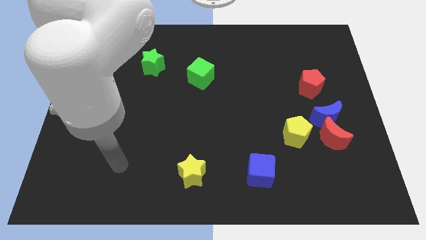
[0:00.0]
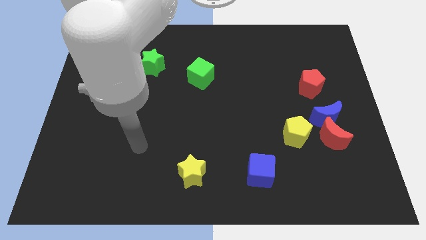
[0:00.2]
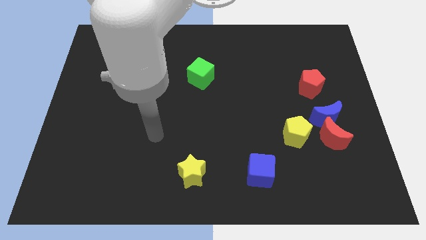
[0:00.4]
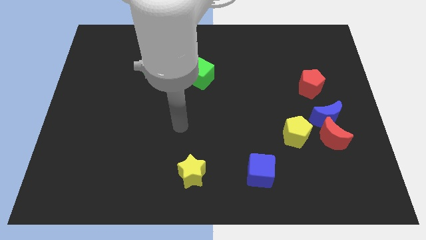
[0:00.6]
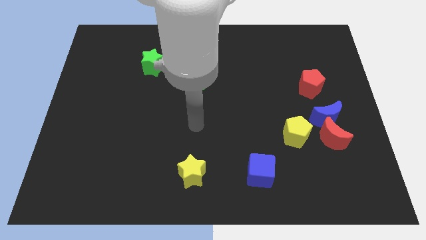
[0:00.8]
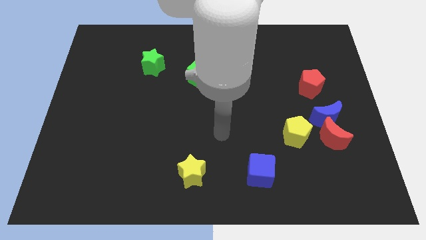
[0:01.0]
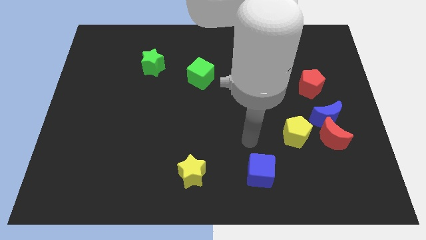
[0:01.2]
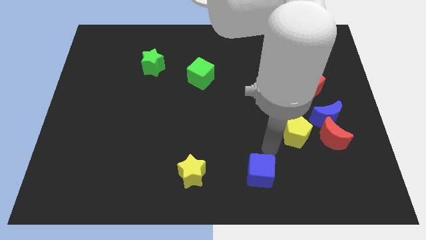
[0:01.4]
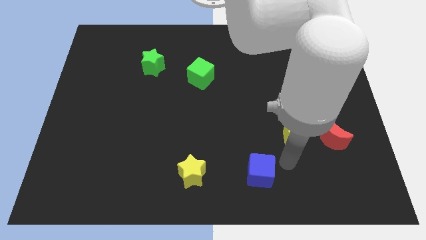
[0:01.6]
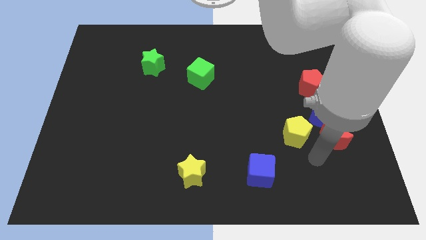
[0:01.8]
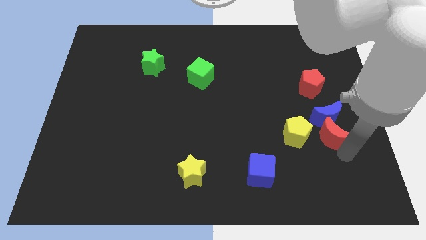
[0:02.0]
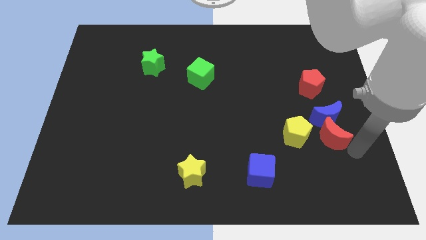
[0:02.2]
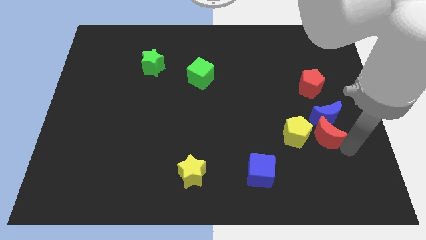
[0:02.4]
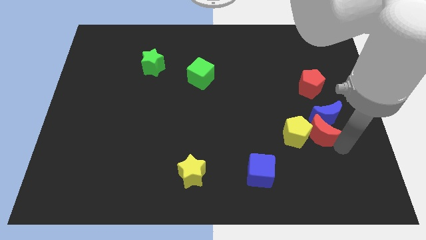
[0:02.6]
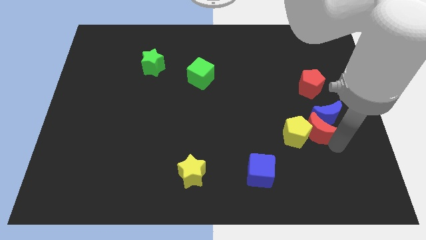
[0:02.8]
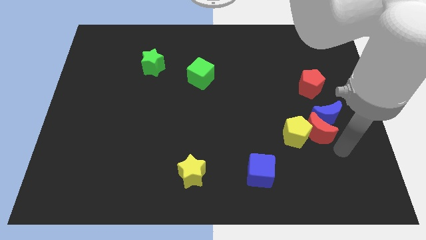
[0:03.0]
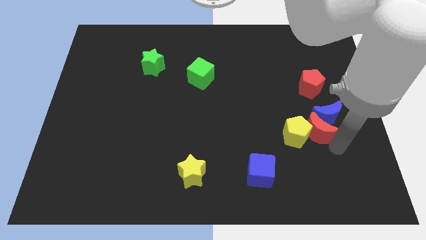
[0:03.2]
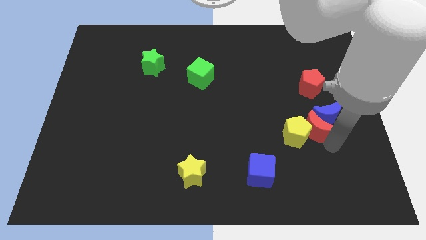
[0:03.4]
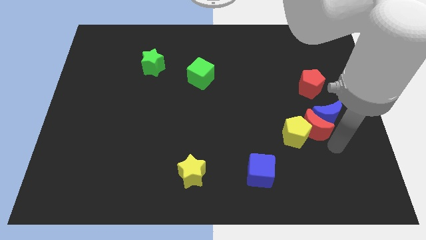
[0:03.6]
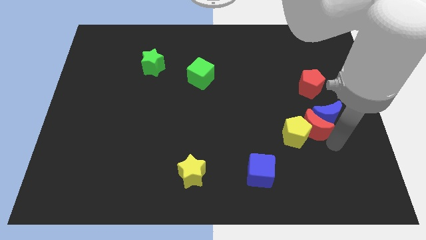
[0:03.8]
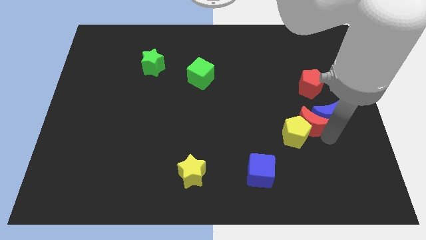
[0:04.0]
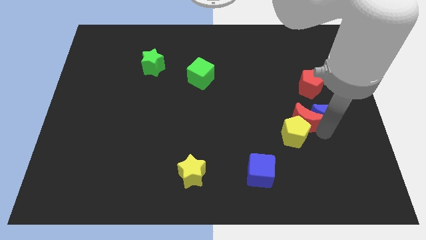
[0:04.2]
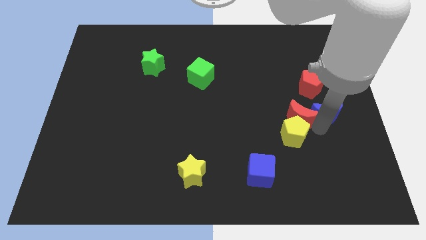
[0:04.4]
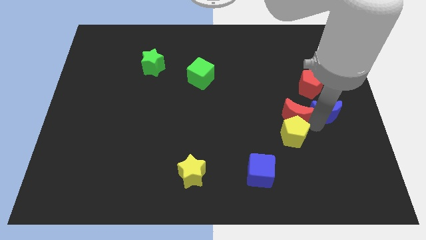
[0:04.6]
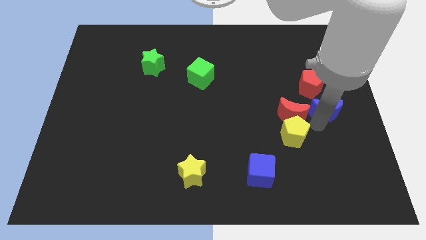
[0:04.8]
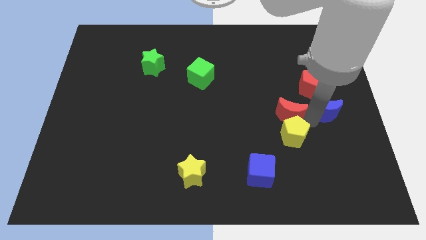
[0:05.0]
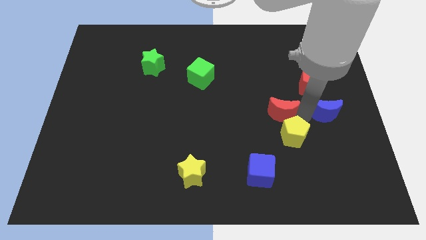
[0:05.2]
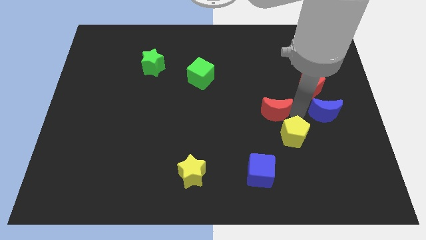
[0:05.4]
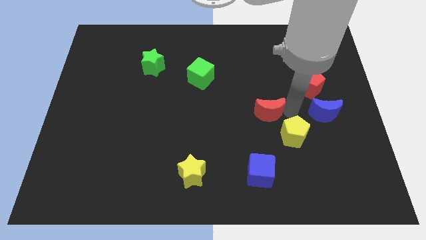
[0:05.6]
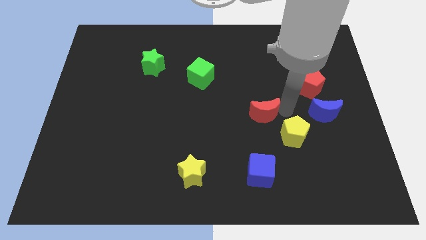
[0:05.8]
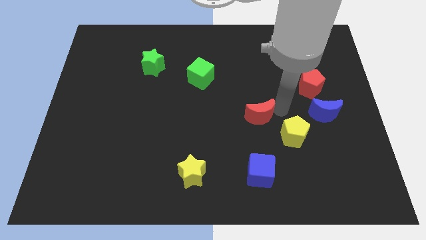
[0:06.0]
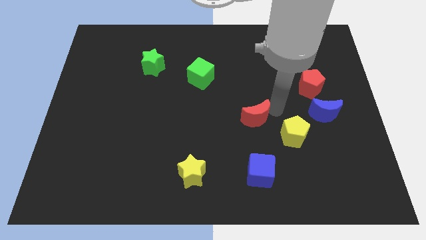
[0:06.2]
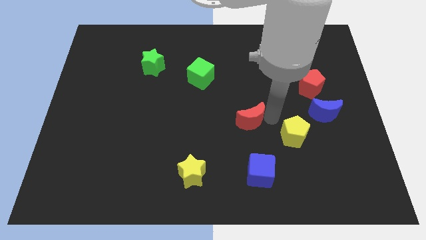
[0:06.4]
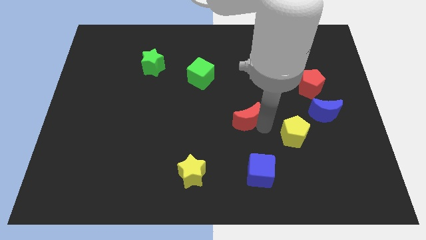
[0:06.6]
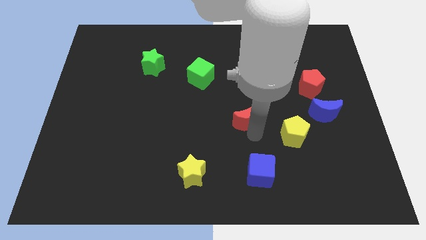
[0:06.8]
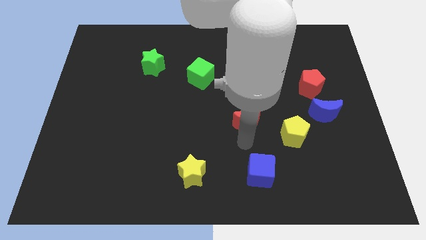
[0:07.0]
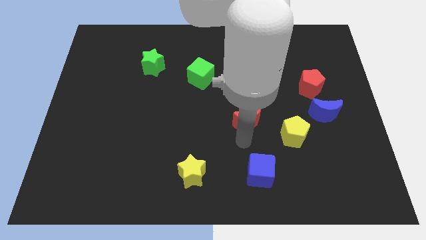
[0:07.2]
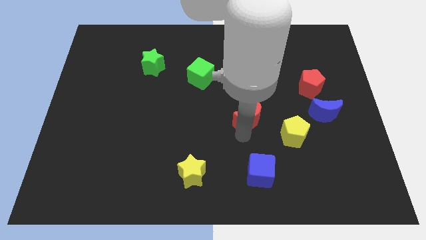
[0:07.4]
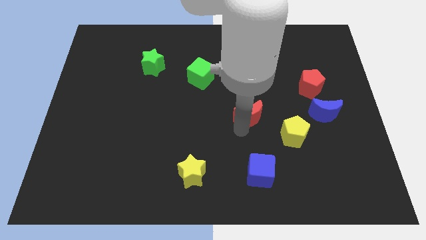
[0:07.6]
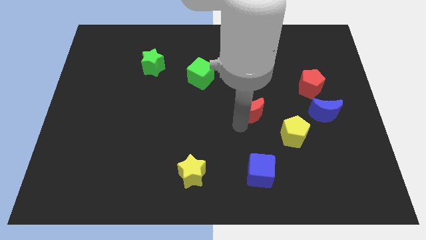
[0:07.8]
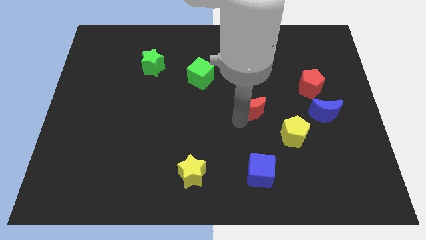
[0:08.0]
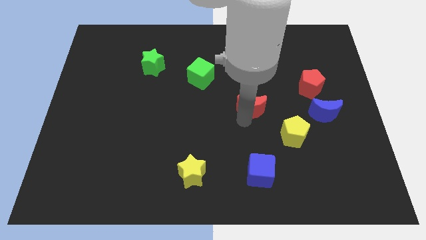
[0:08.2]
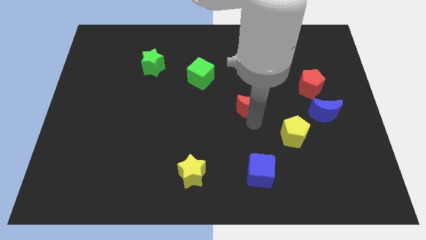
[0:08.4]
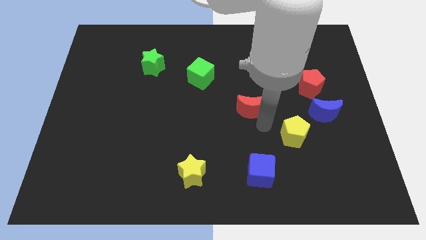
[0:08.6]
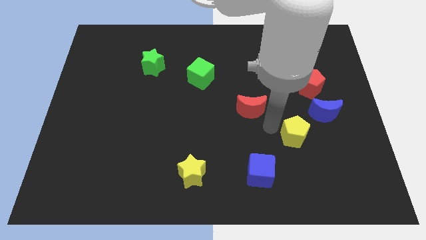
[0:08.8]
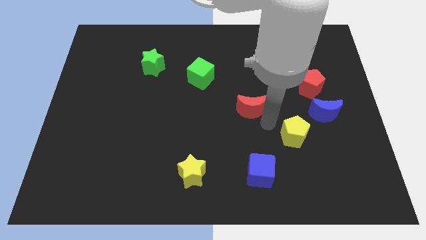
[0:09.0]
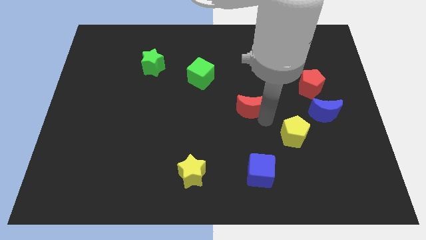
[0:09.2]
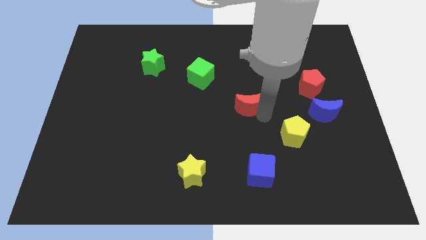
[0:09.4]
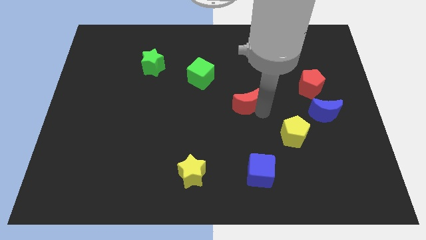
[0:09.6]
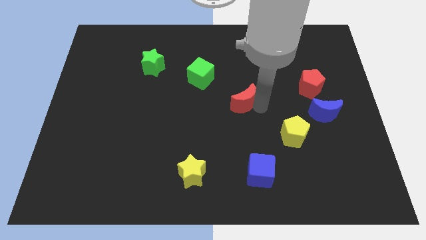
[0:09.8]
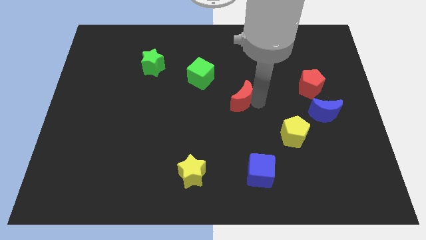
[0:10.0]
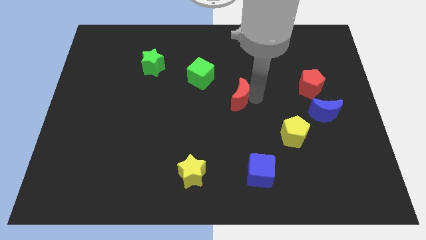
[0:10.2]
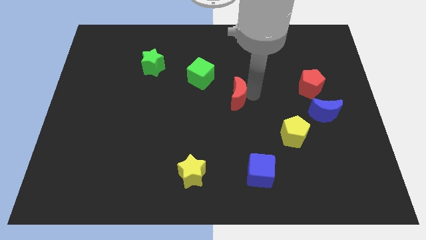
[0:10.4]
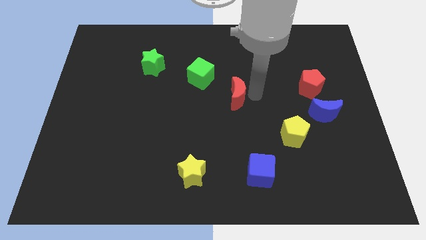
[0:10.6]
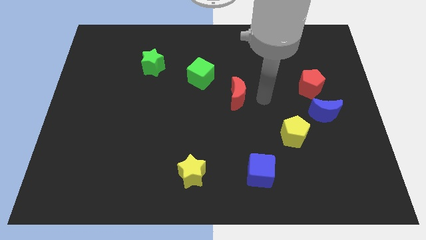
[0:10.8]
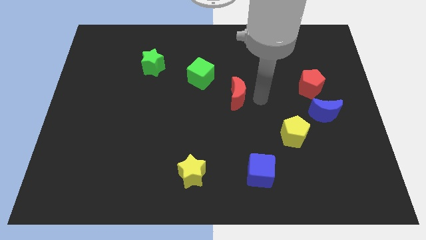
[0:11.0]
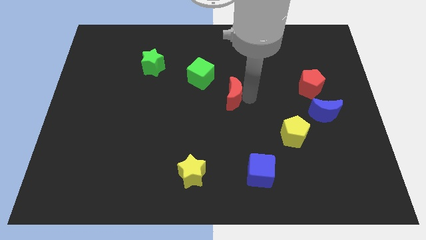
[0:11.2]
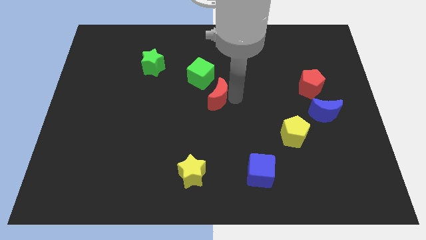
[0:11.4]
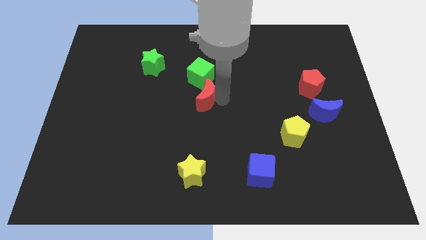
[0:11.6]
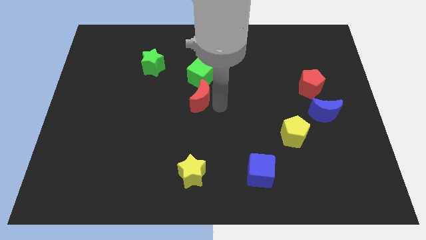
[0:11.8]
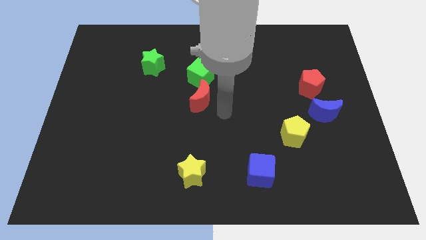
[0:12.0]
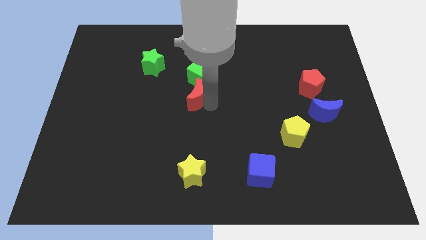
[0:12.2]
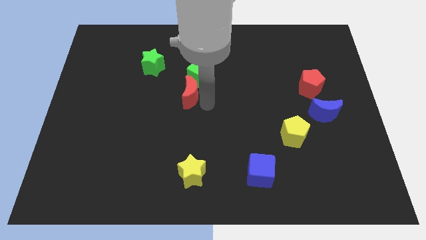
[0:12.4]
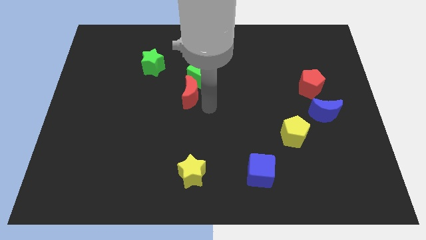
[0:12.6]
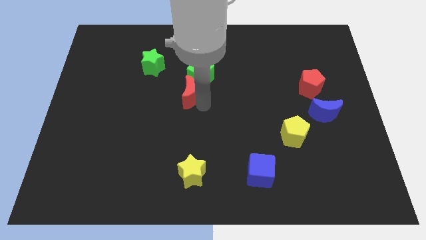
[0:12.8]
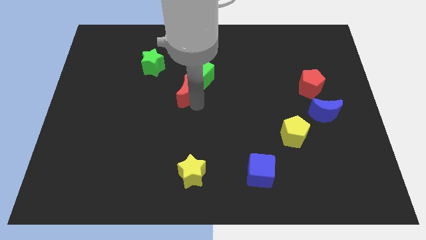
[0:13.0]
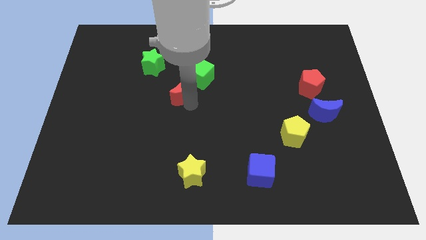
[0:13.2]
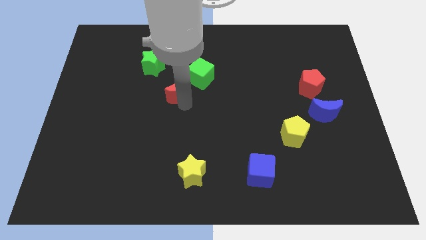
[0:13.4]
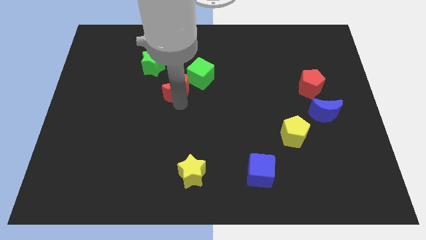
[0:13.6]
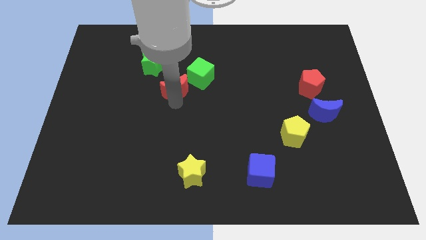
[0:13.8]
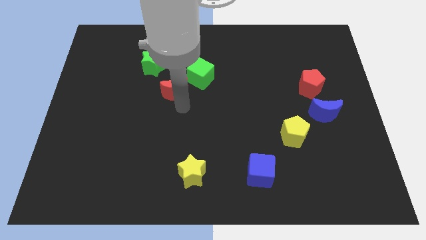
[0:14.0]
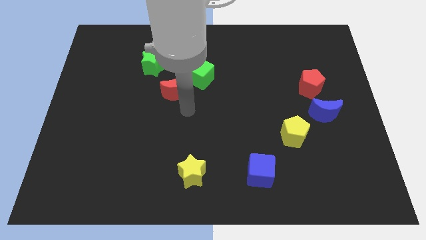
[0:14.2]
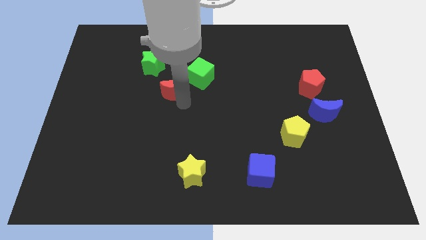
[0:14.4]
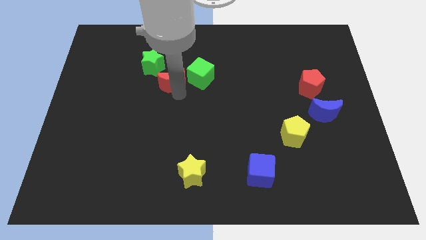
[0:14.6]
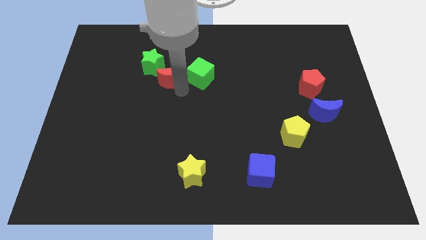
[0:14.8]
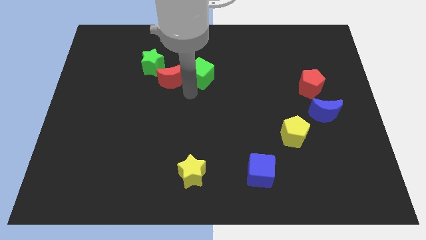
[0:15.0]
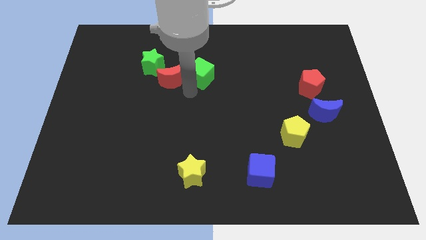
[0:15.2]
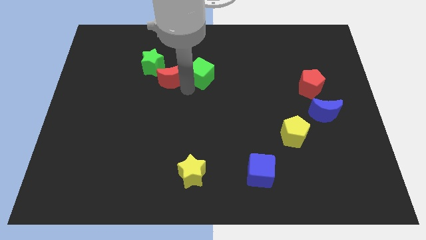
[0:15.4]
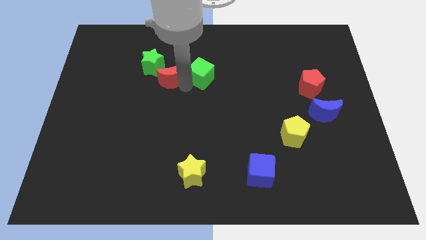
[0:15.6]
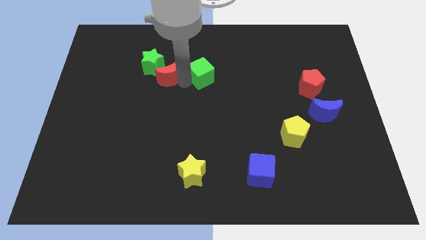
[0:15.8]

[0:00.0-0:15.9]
move the red moon next to the green star
